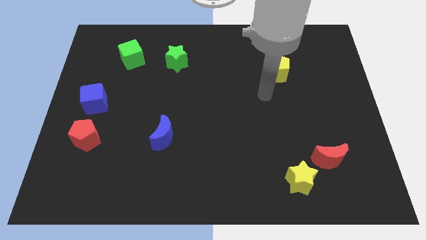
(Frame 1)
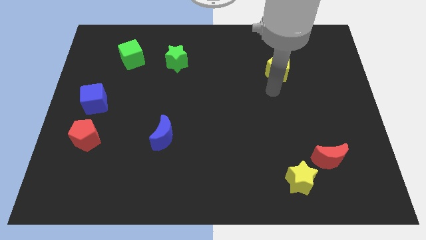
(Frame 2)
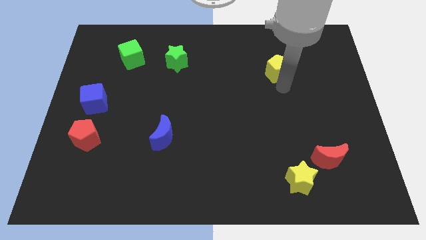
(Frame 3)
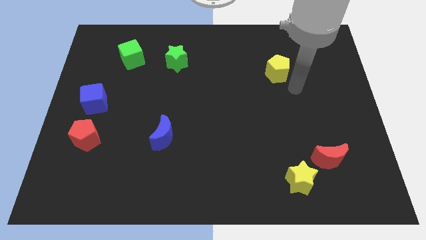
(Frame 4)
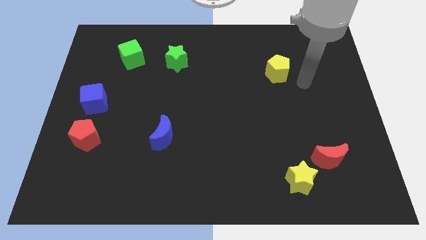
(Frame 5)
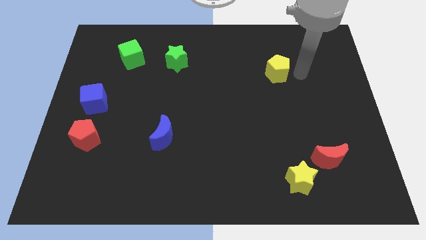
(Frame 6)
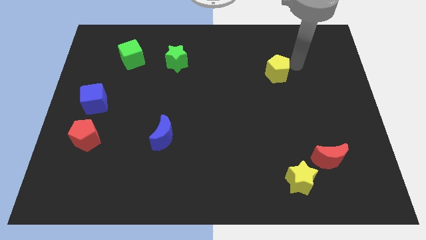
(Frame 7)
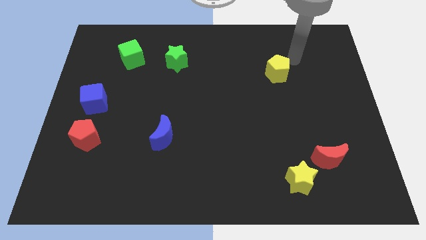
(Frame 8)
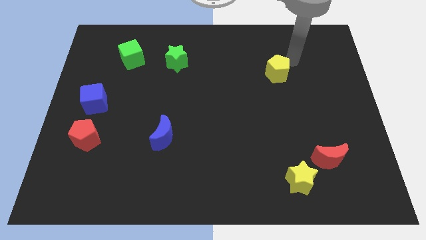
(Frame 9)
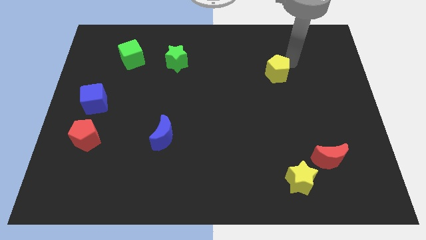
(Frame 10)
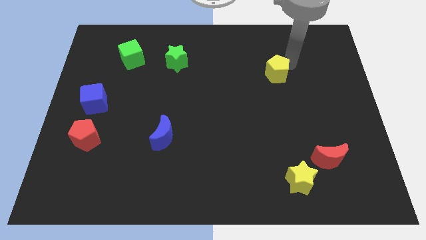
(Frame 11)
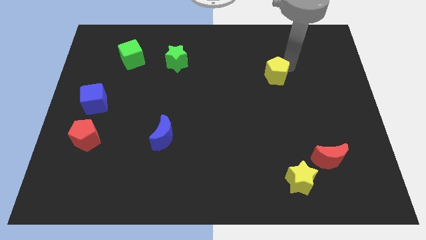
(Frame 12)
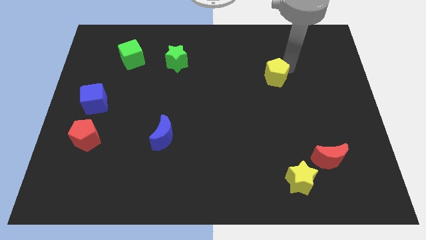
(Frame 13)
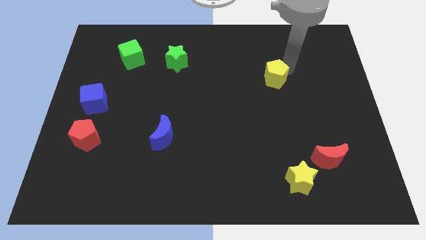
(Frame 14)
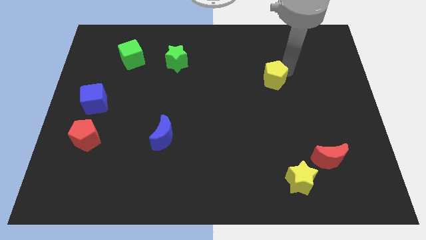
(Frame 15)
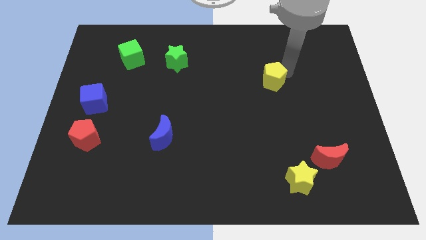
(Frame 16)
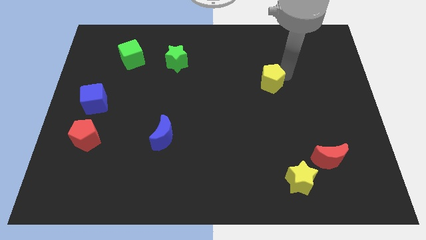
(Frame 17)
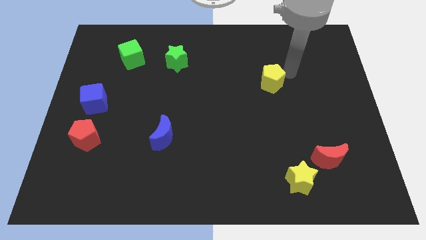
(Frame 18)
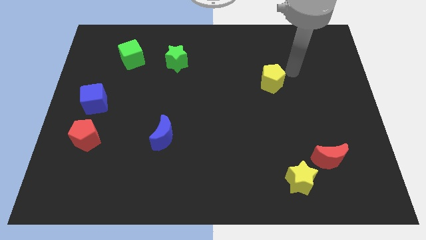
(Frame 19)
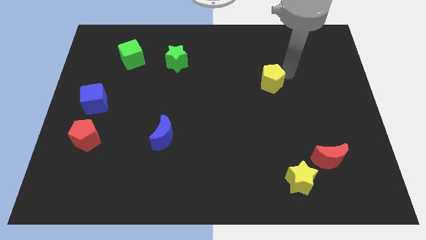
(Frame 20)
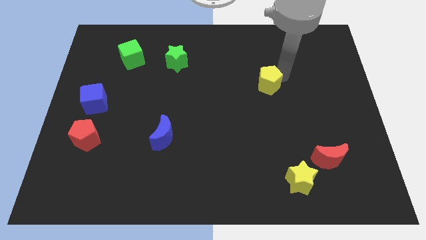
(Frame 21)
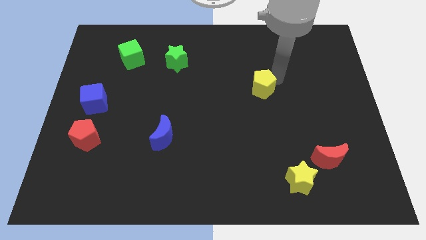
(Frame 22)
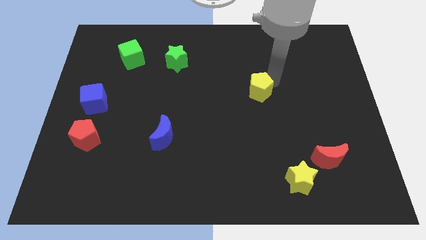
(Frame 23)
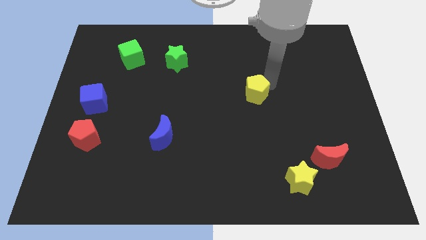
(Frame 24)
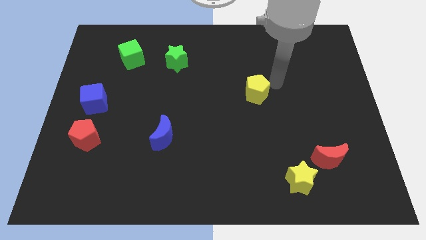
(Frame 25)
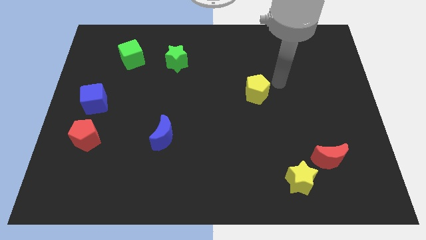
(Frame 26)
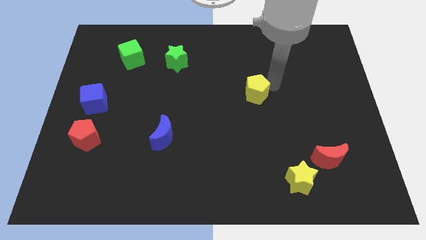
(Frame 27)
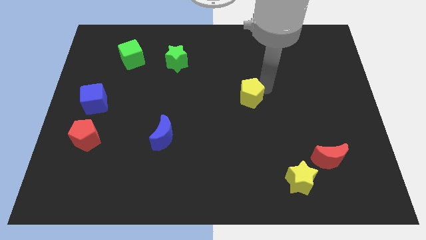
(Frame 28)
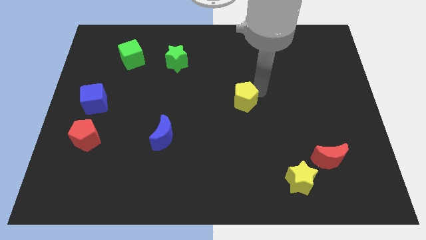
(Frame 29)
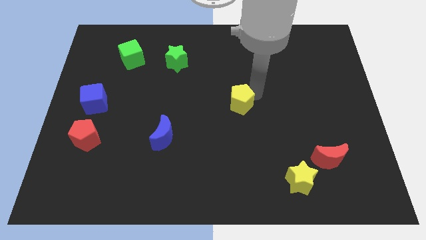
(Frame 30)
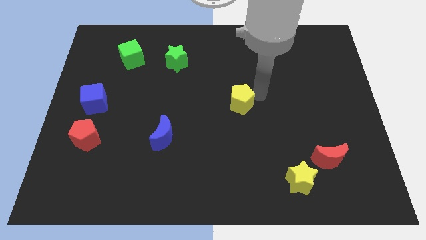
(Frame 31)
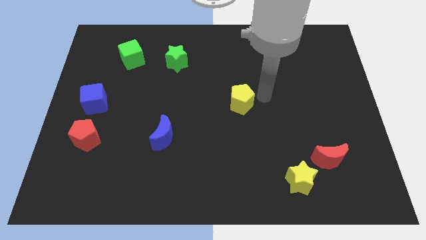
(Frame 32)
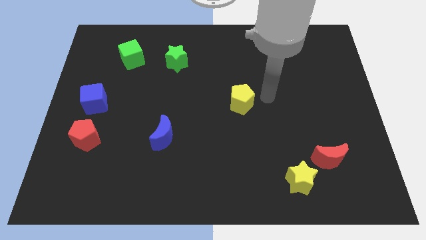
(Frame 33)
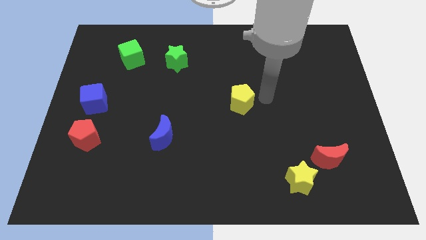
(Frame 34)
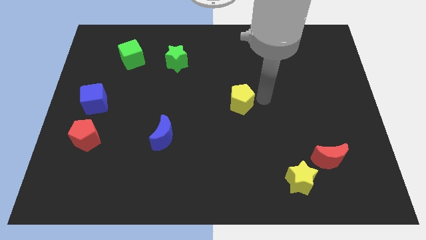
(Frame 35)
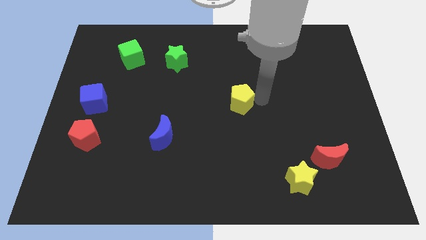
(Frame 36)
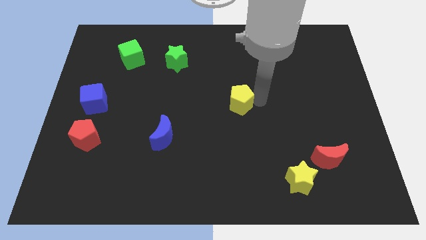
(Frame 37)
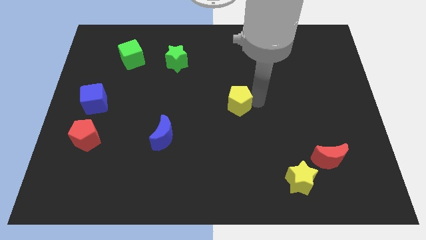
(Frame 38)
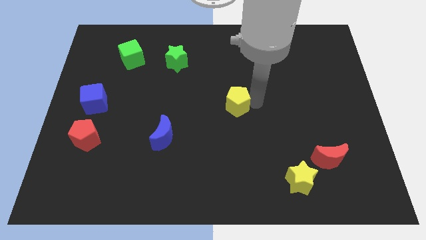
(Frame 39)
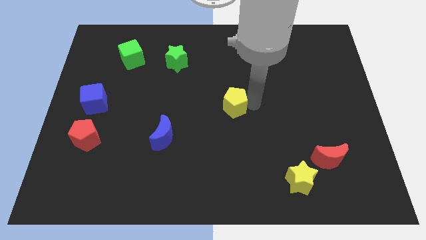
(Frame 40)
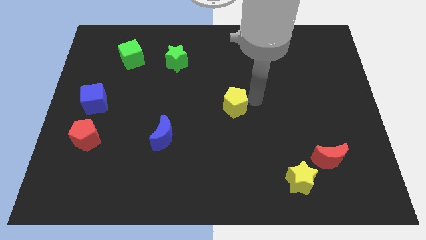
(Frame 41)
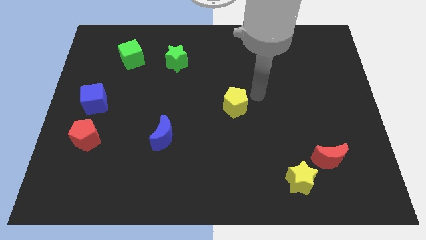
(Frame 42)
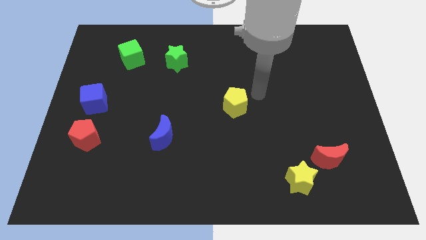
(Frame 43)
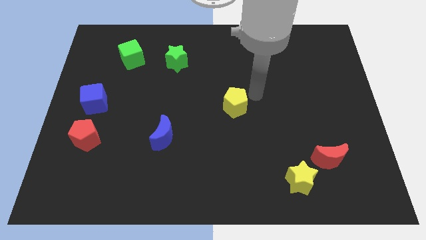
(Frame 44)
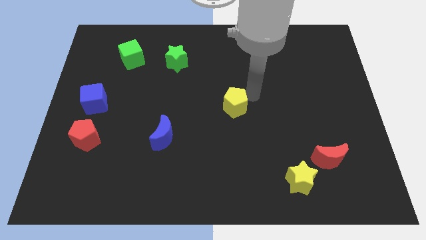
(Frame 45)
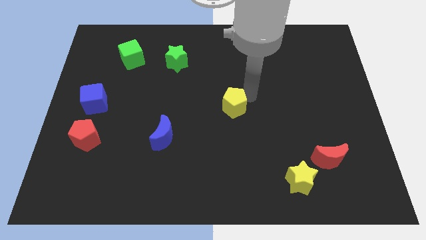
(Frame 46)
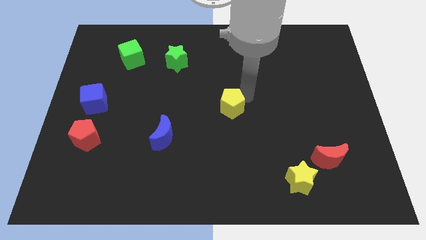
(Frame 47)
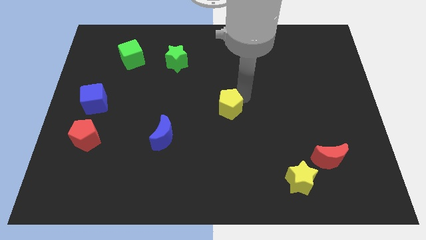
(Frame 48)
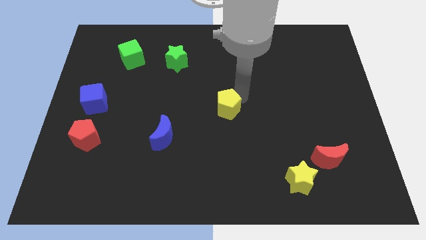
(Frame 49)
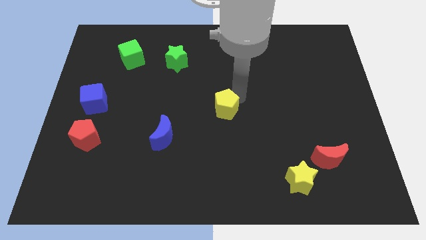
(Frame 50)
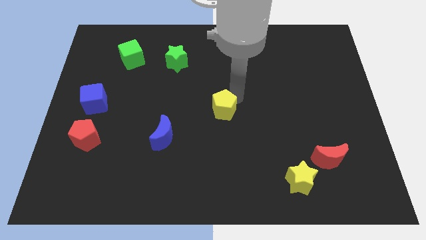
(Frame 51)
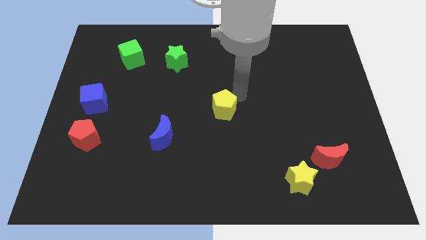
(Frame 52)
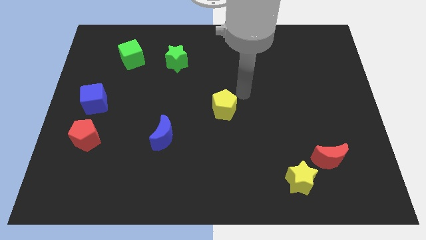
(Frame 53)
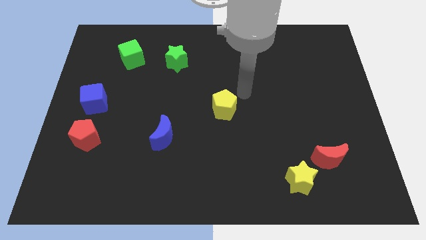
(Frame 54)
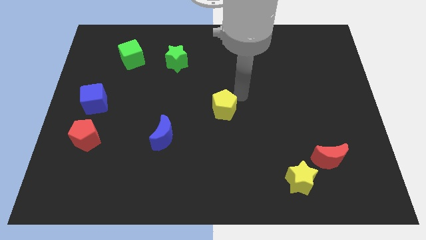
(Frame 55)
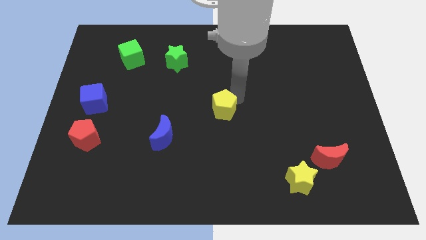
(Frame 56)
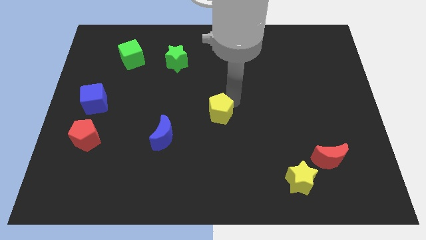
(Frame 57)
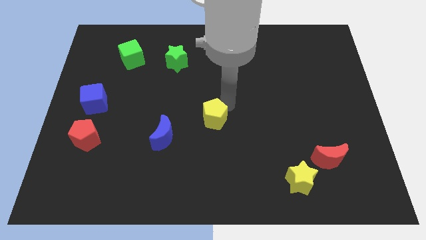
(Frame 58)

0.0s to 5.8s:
move the yellow pentagon diagonally down and left

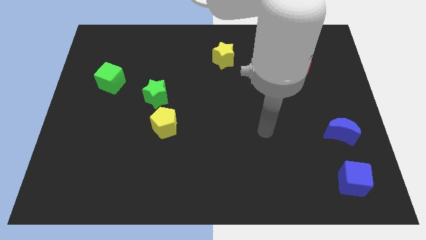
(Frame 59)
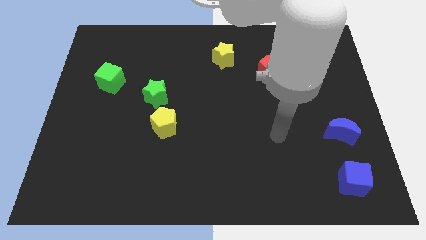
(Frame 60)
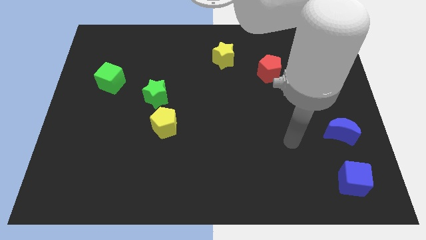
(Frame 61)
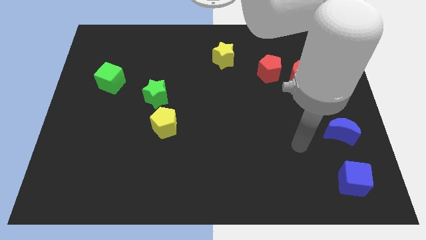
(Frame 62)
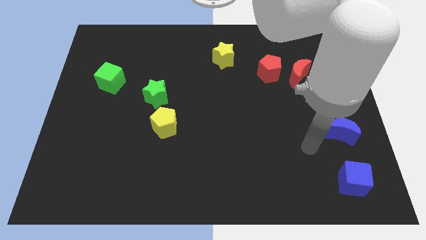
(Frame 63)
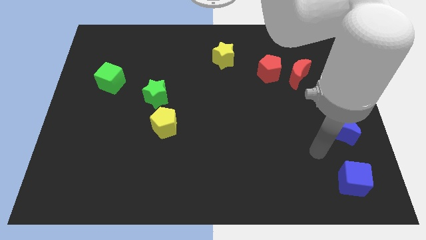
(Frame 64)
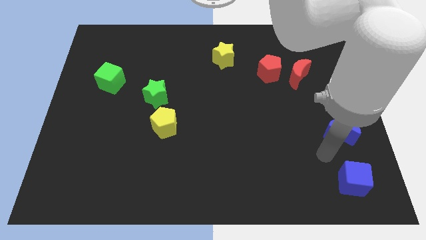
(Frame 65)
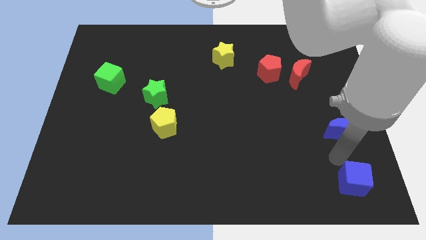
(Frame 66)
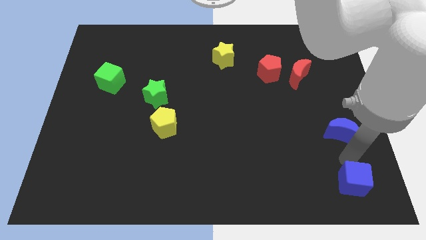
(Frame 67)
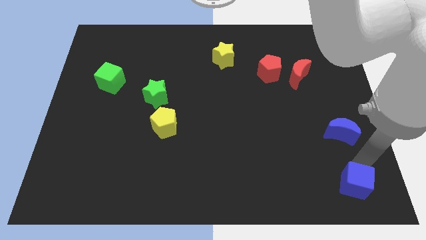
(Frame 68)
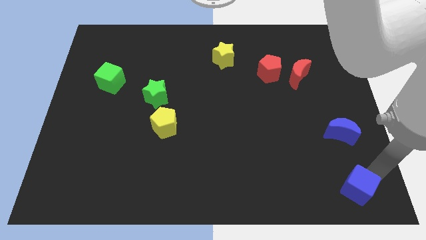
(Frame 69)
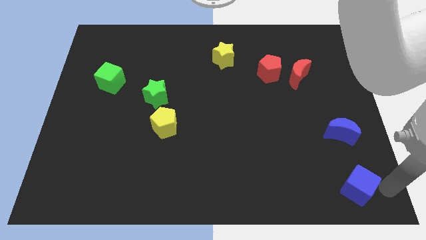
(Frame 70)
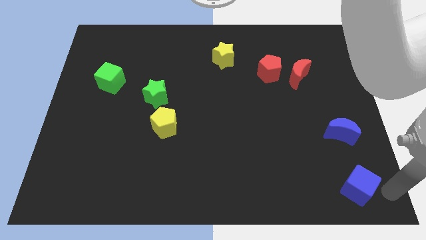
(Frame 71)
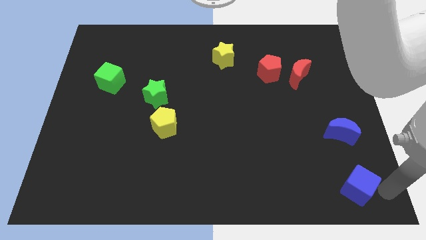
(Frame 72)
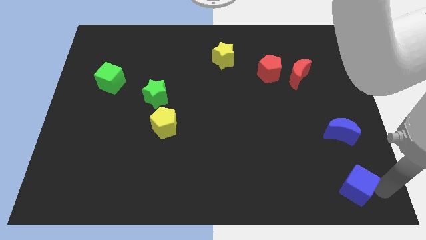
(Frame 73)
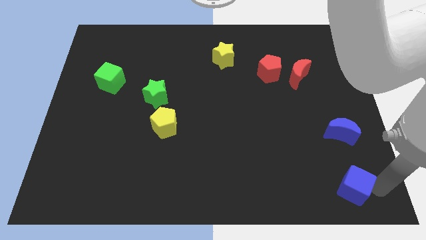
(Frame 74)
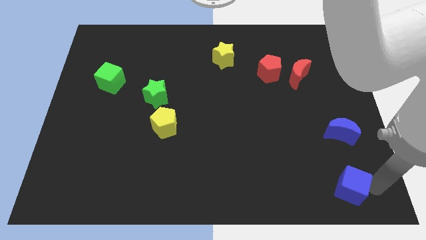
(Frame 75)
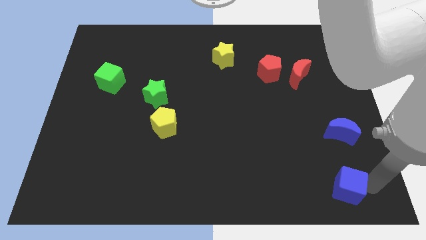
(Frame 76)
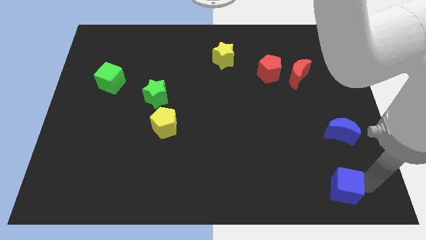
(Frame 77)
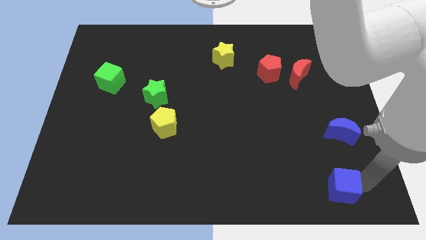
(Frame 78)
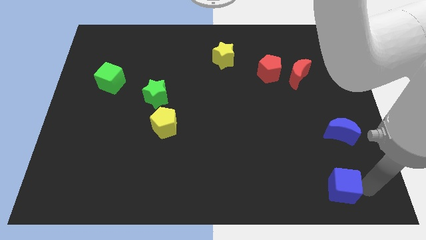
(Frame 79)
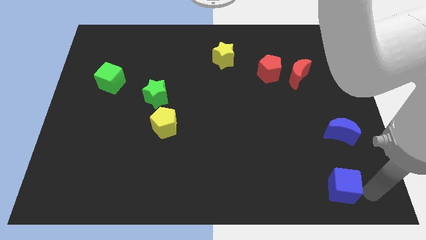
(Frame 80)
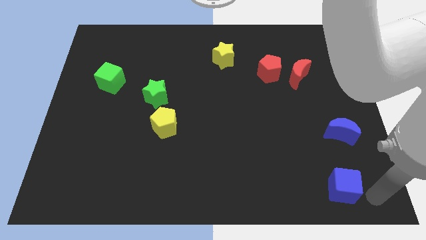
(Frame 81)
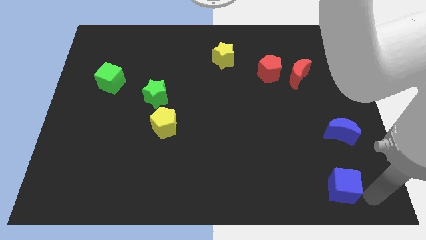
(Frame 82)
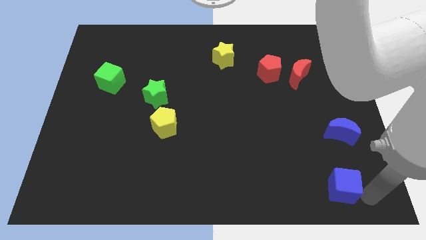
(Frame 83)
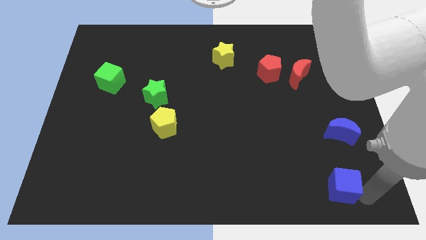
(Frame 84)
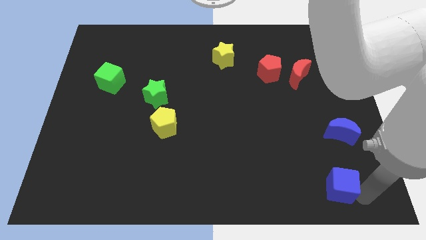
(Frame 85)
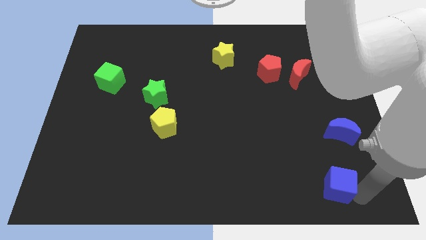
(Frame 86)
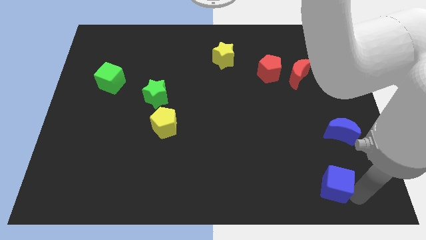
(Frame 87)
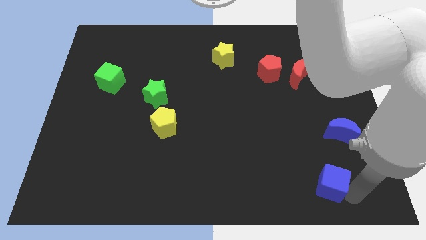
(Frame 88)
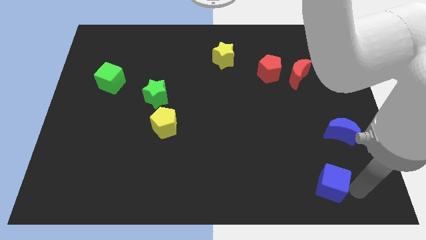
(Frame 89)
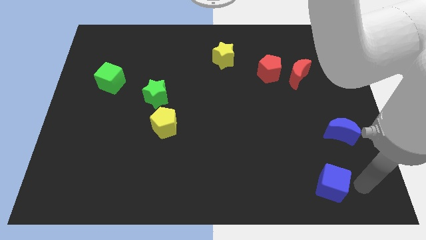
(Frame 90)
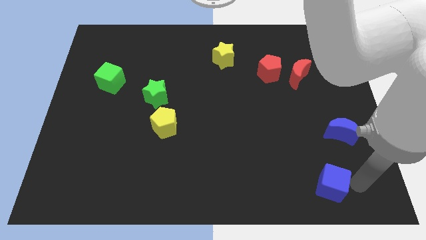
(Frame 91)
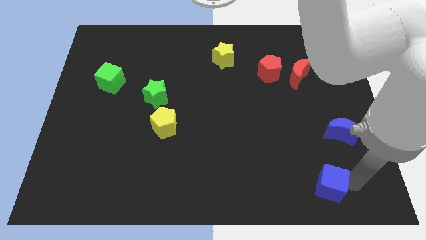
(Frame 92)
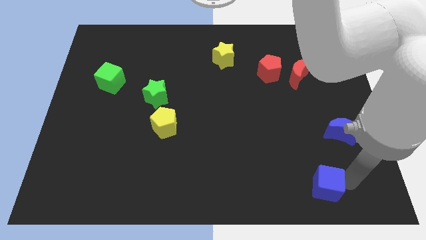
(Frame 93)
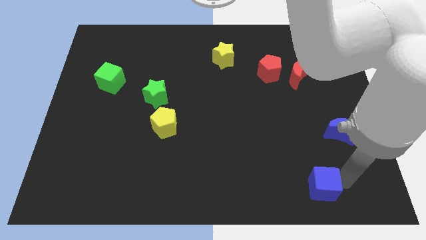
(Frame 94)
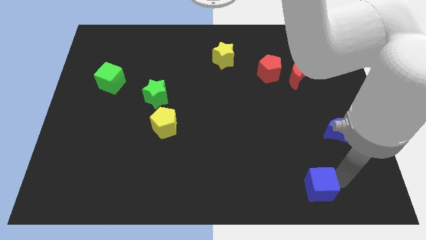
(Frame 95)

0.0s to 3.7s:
slide the blue cube slightly left
